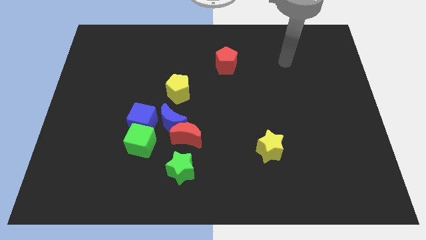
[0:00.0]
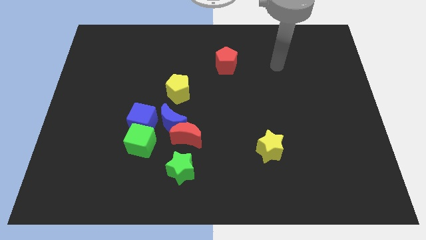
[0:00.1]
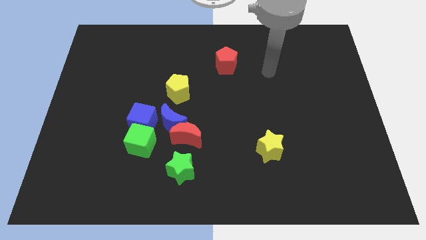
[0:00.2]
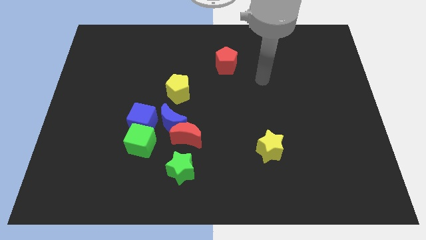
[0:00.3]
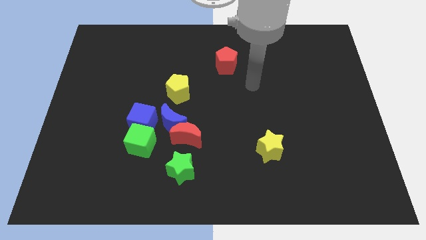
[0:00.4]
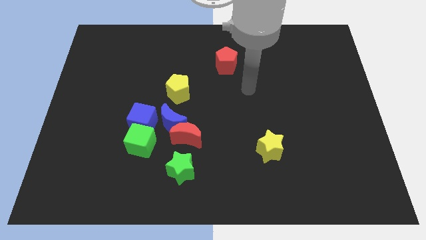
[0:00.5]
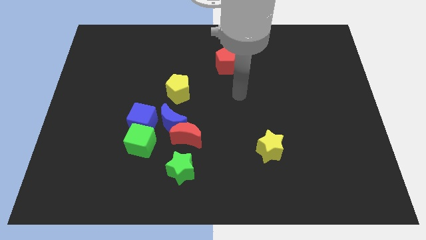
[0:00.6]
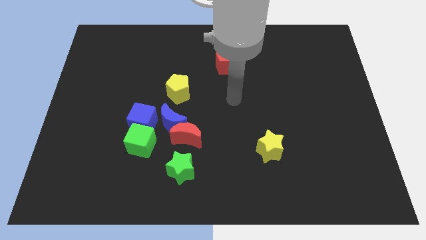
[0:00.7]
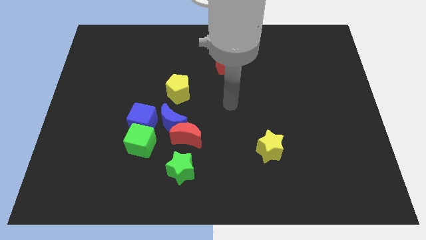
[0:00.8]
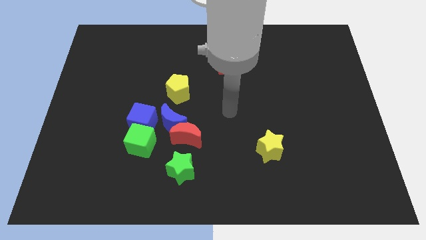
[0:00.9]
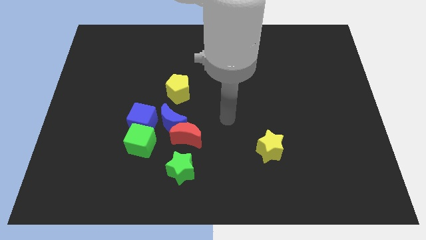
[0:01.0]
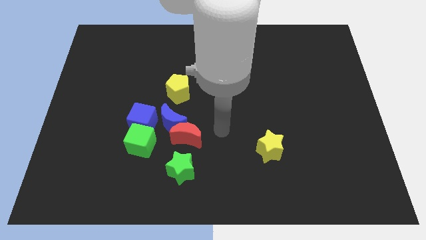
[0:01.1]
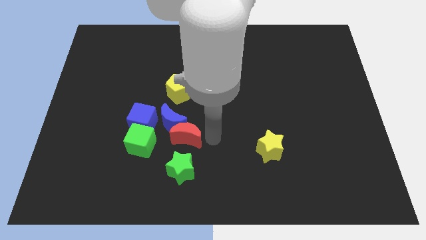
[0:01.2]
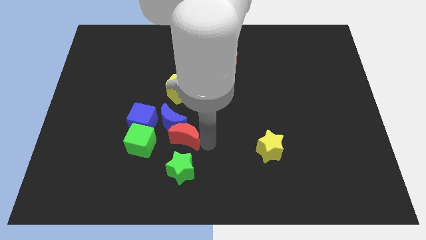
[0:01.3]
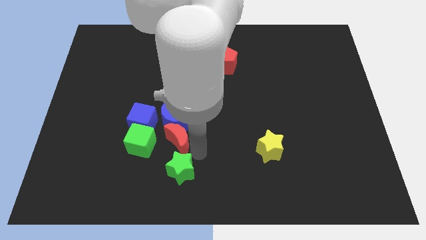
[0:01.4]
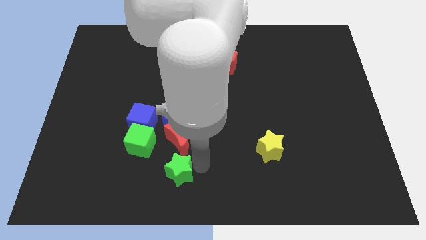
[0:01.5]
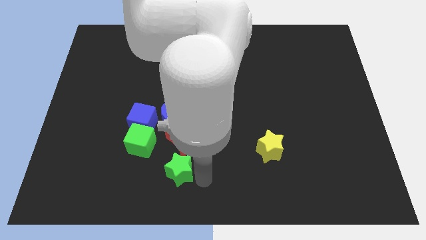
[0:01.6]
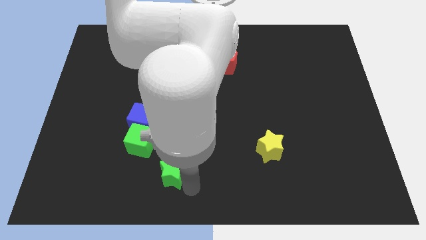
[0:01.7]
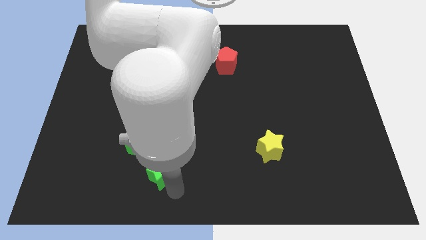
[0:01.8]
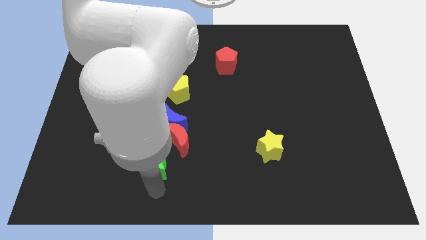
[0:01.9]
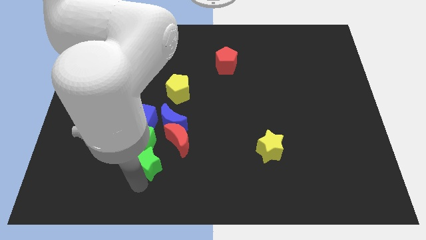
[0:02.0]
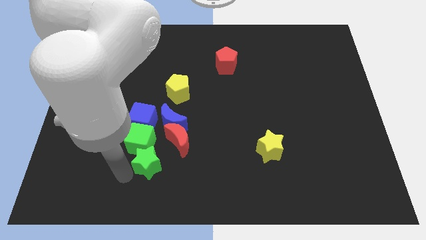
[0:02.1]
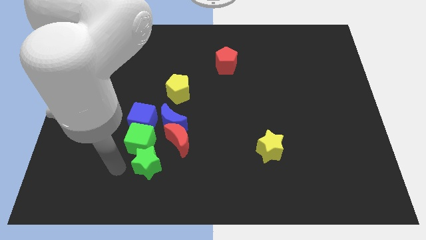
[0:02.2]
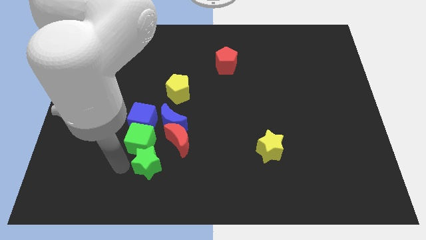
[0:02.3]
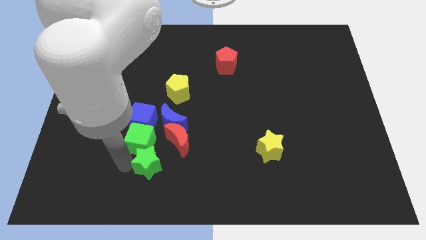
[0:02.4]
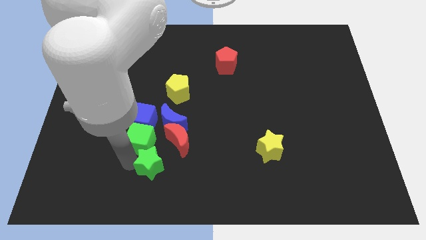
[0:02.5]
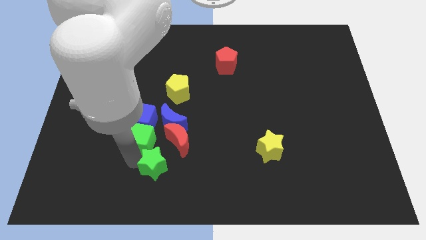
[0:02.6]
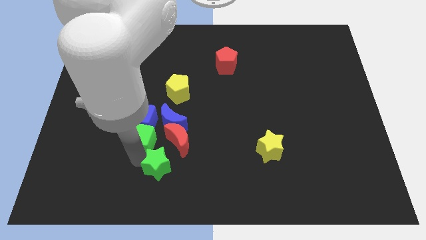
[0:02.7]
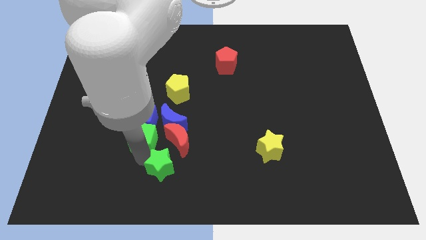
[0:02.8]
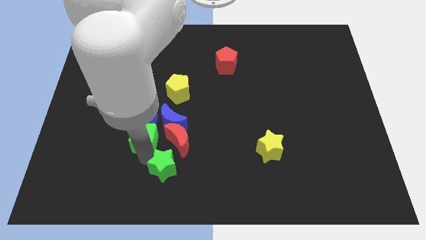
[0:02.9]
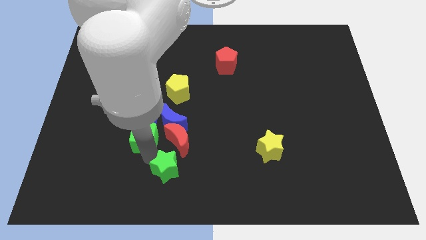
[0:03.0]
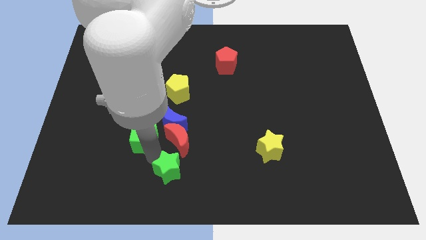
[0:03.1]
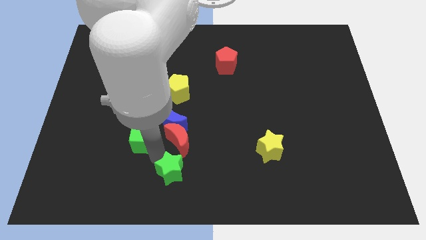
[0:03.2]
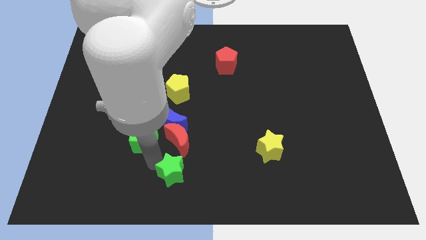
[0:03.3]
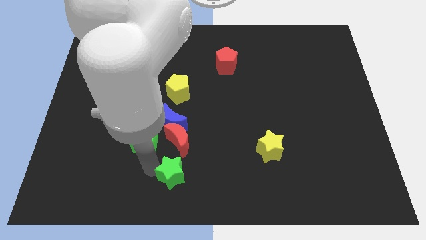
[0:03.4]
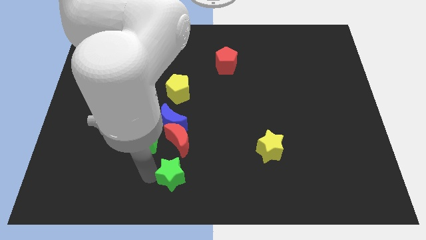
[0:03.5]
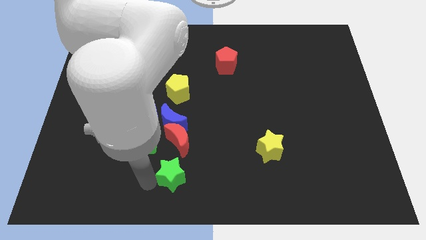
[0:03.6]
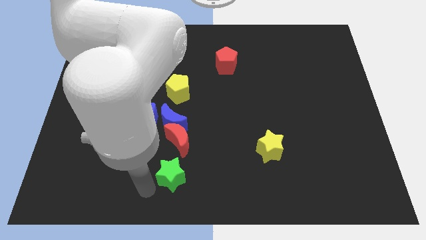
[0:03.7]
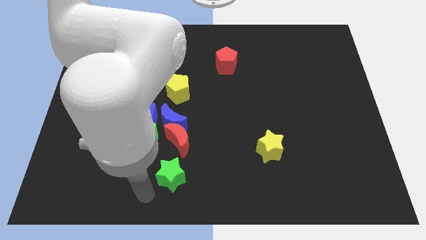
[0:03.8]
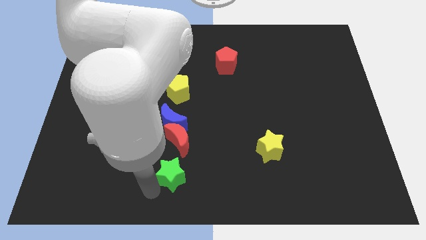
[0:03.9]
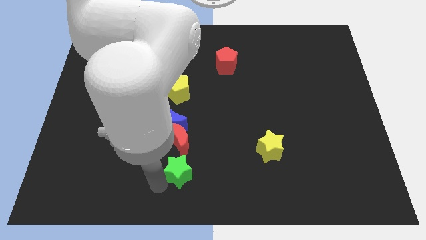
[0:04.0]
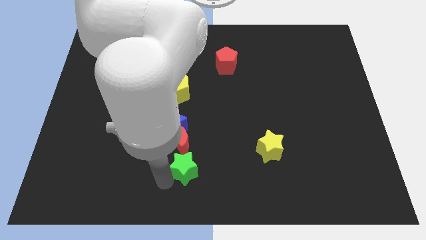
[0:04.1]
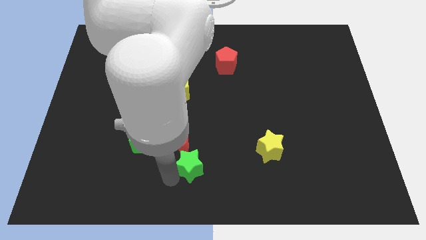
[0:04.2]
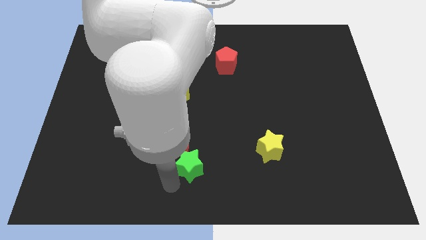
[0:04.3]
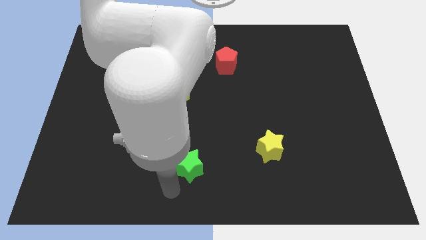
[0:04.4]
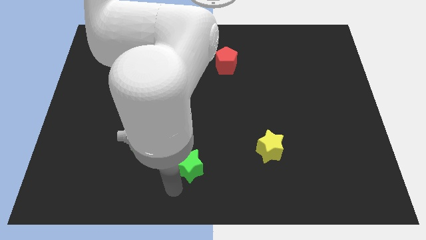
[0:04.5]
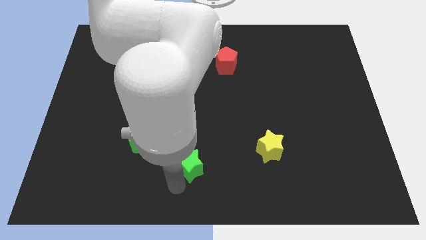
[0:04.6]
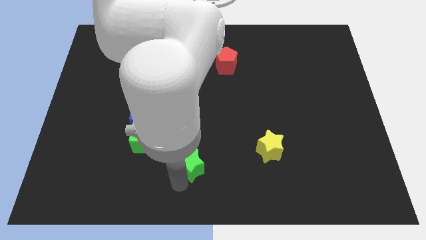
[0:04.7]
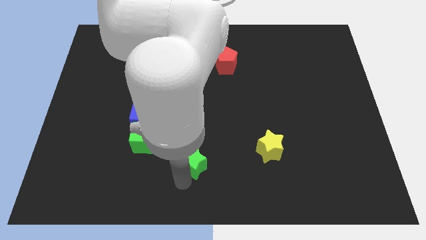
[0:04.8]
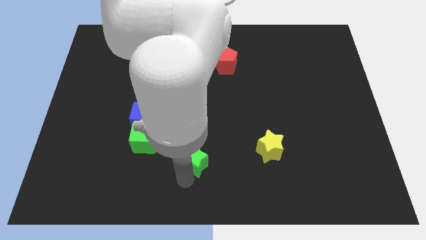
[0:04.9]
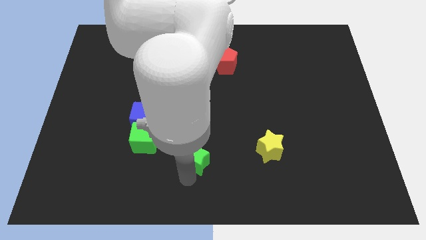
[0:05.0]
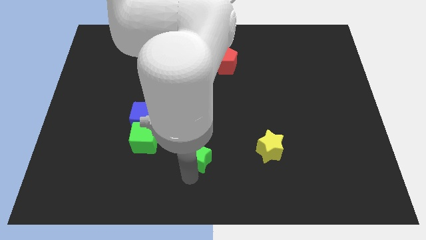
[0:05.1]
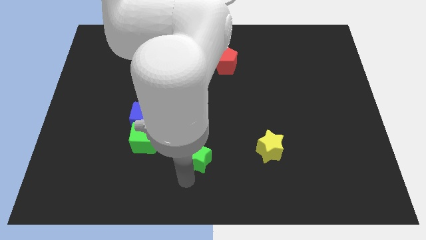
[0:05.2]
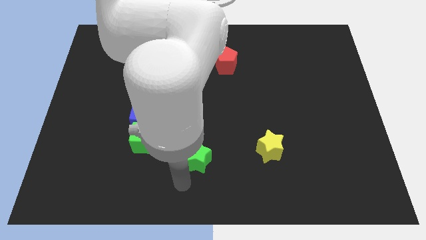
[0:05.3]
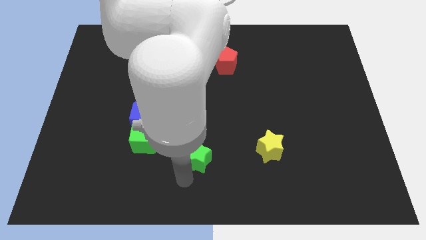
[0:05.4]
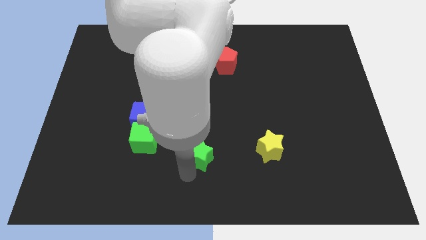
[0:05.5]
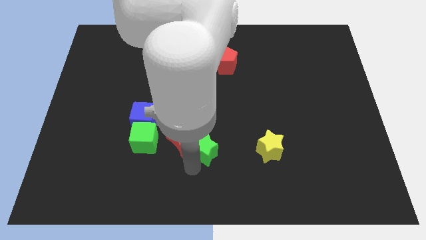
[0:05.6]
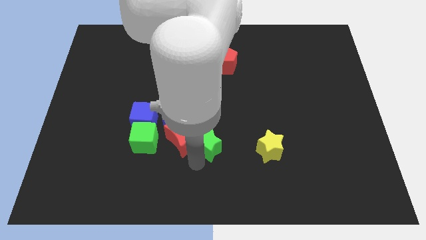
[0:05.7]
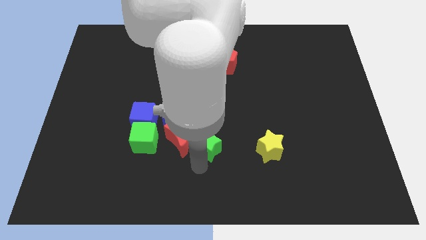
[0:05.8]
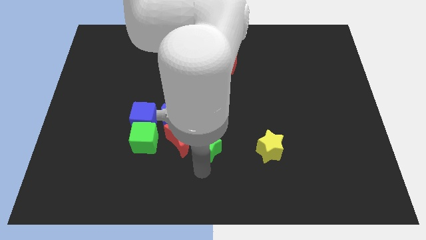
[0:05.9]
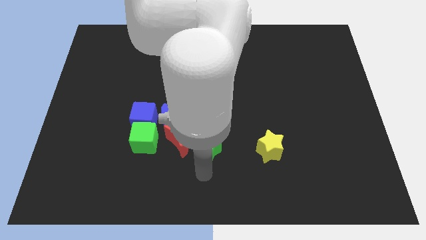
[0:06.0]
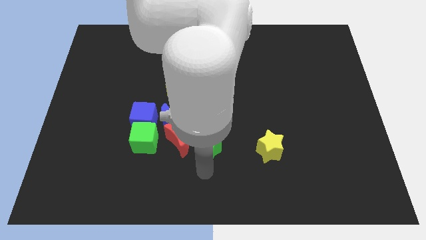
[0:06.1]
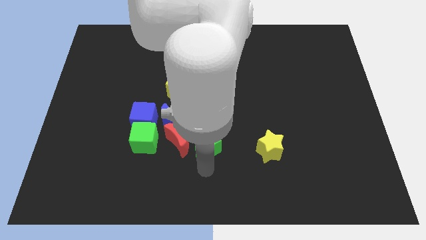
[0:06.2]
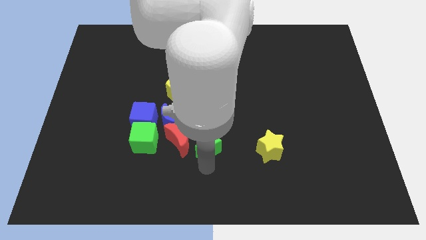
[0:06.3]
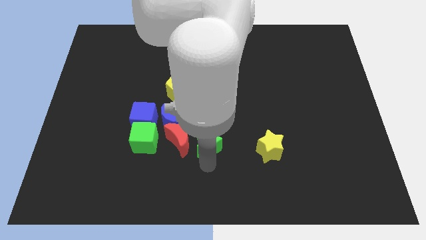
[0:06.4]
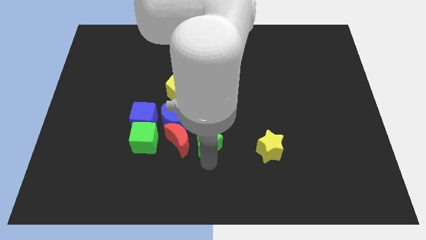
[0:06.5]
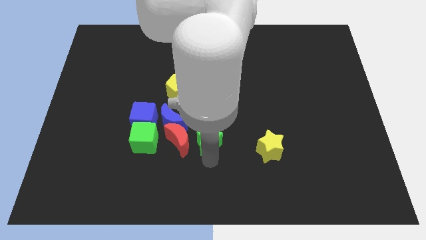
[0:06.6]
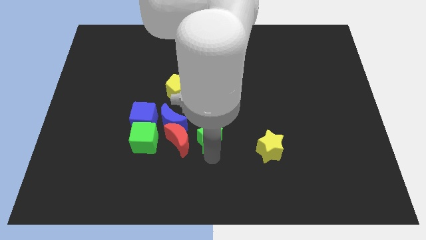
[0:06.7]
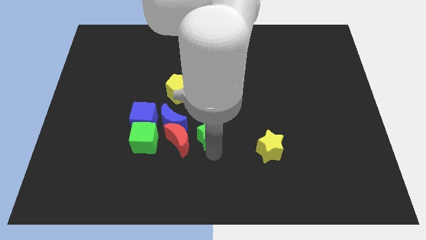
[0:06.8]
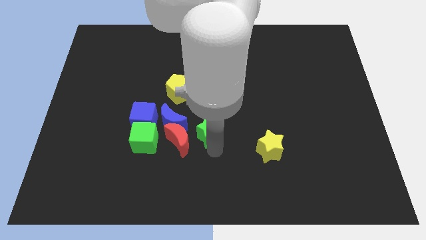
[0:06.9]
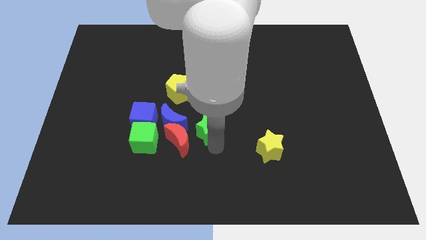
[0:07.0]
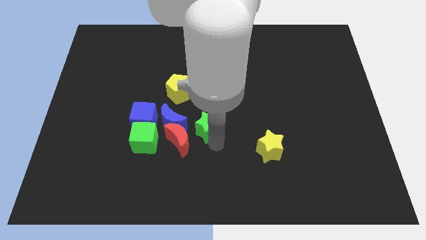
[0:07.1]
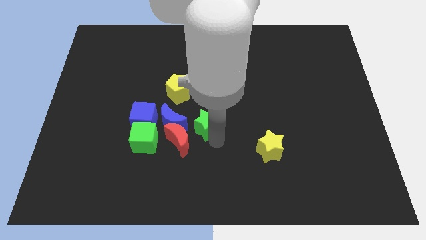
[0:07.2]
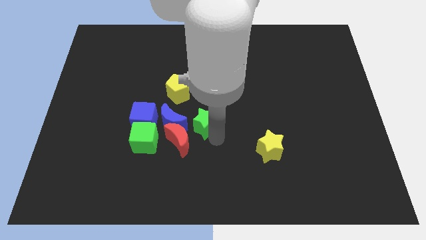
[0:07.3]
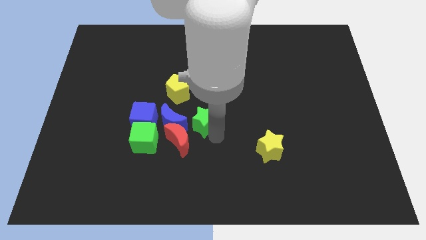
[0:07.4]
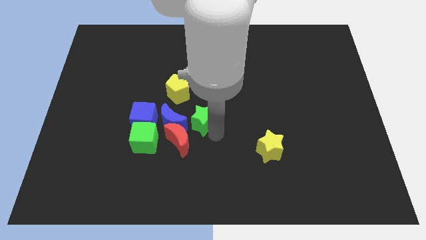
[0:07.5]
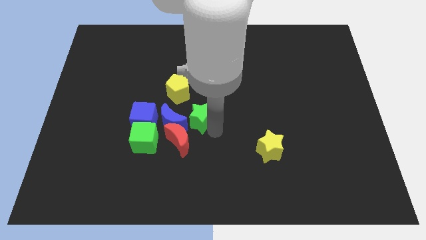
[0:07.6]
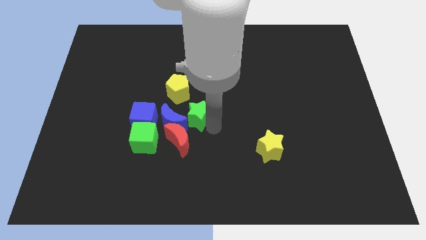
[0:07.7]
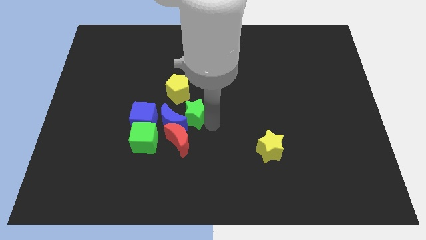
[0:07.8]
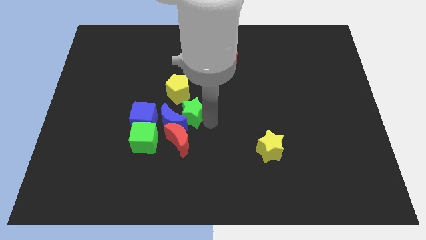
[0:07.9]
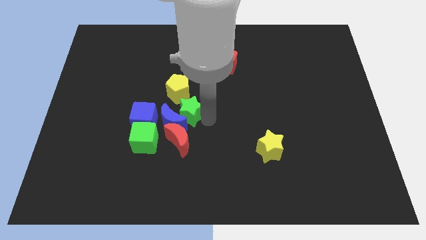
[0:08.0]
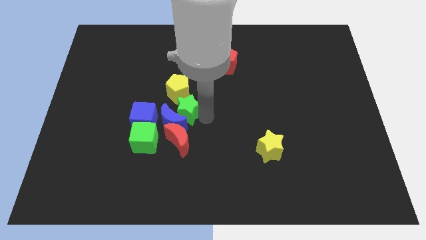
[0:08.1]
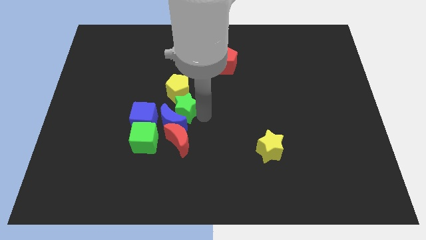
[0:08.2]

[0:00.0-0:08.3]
put the green star diagonally up and to the right of the blue cube
